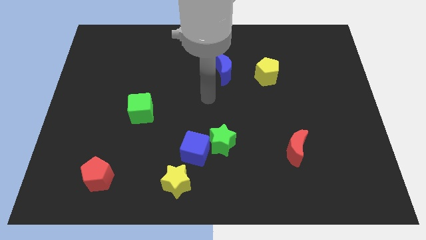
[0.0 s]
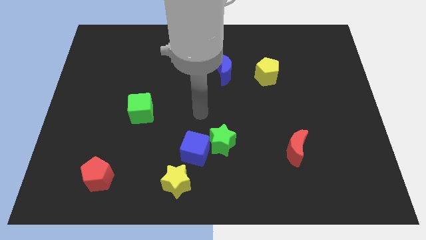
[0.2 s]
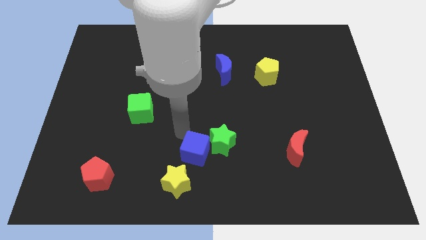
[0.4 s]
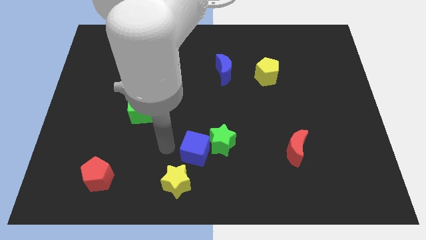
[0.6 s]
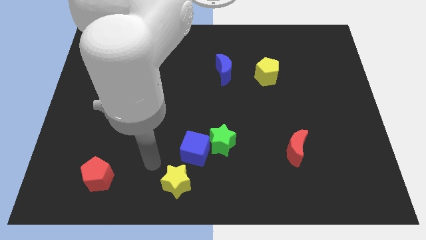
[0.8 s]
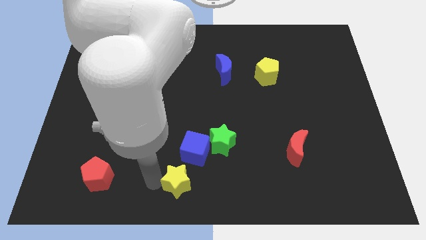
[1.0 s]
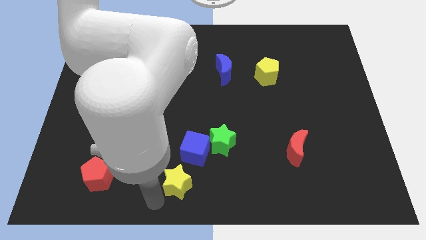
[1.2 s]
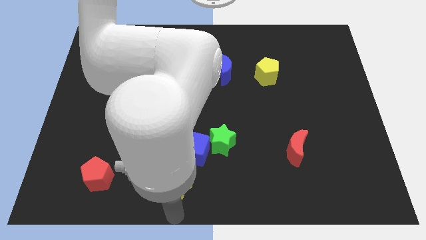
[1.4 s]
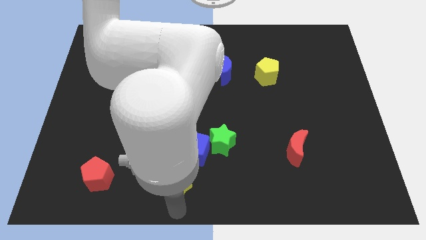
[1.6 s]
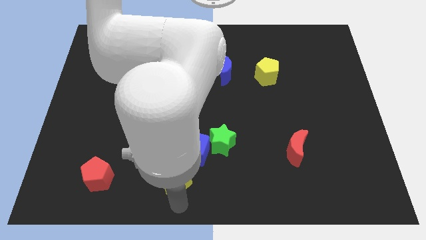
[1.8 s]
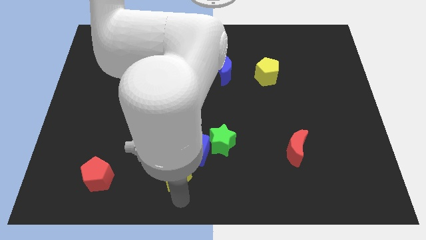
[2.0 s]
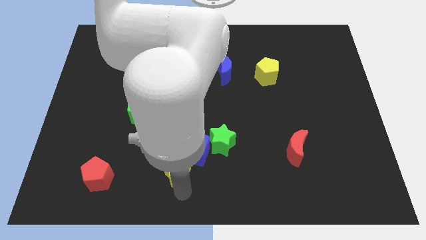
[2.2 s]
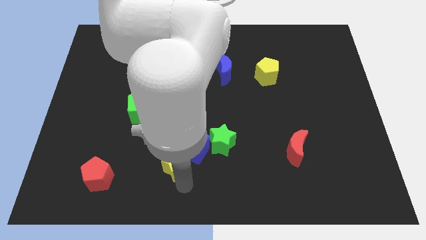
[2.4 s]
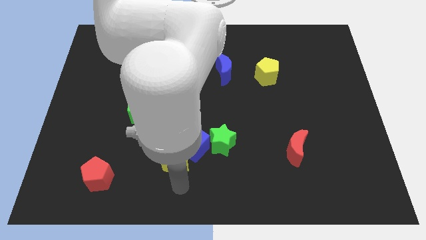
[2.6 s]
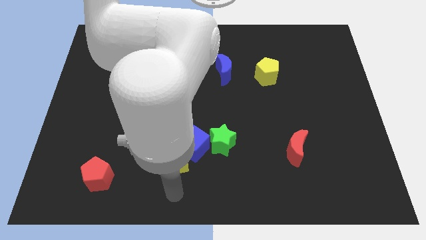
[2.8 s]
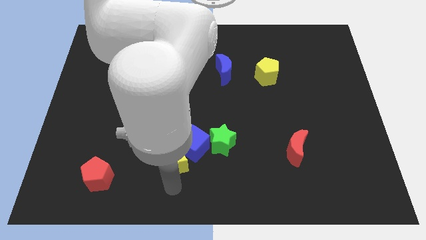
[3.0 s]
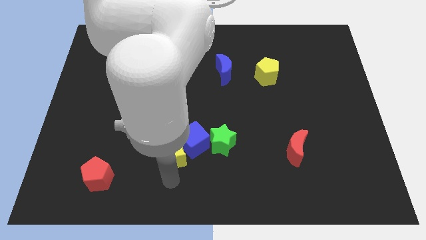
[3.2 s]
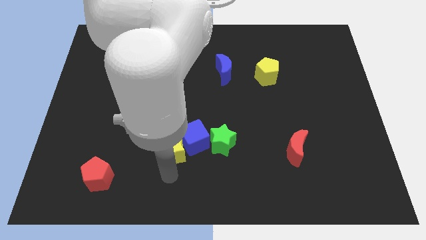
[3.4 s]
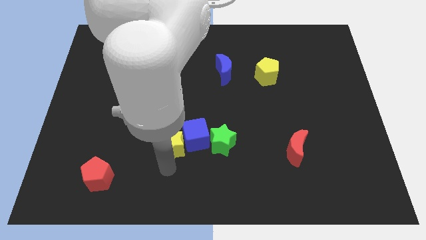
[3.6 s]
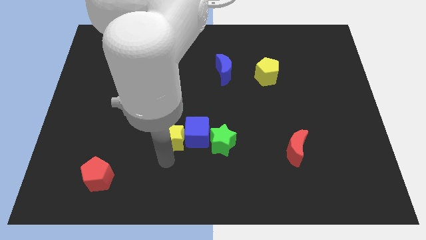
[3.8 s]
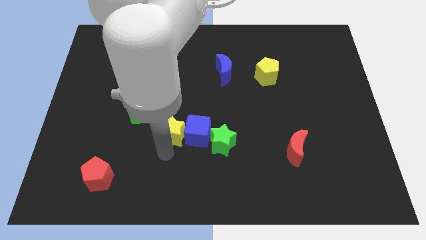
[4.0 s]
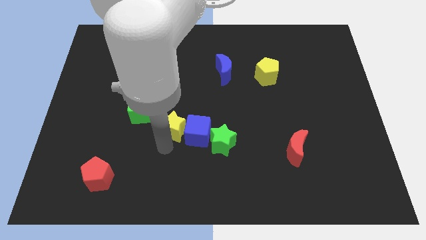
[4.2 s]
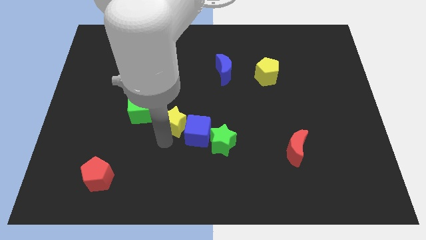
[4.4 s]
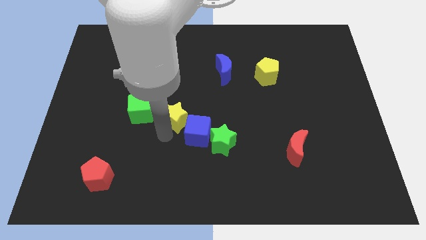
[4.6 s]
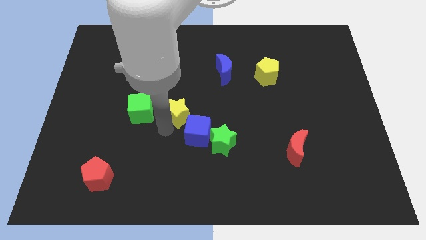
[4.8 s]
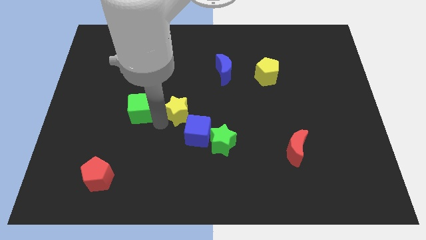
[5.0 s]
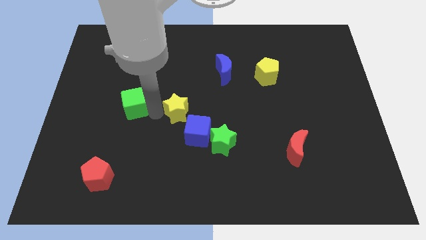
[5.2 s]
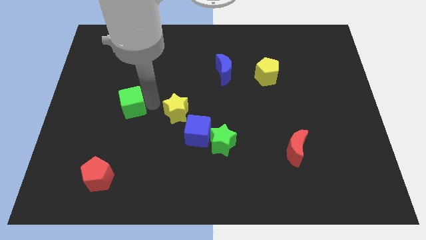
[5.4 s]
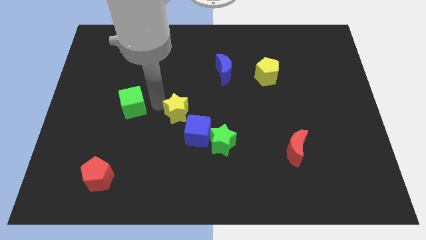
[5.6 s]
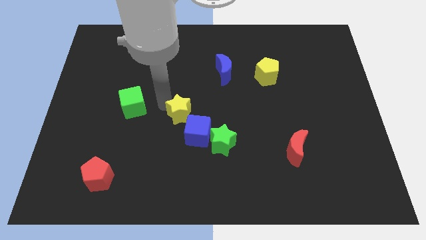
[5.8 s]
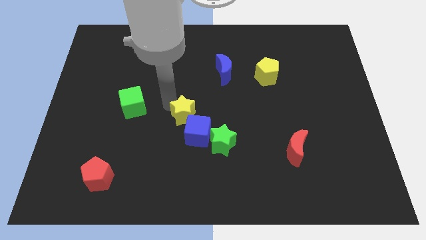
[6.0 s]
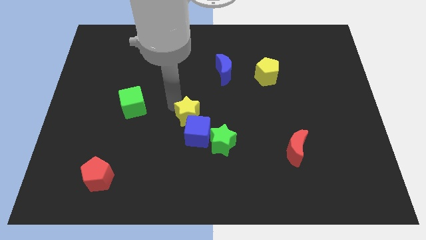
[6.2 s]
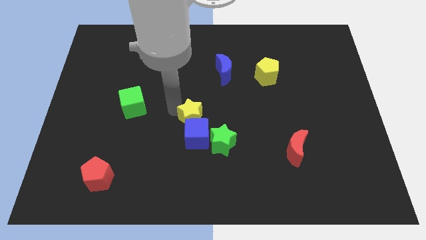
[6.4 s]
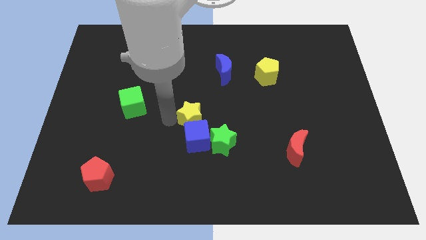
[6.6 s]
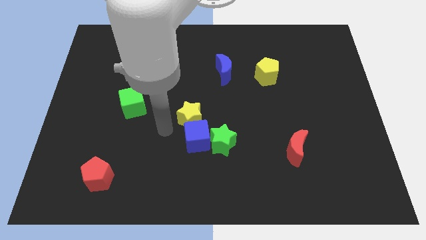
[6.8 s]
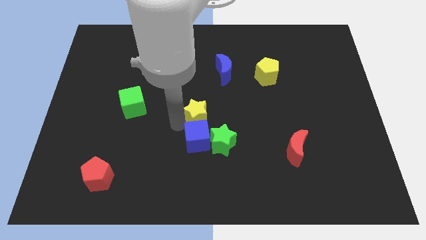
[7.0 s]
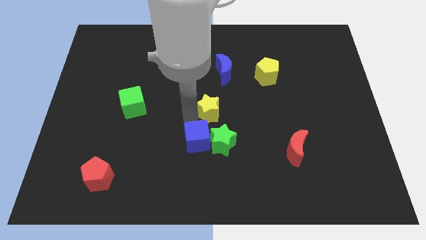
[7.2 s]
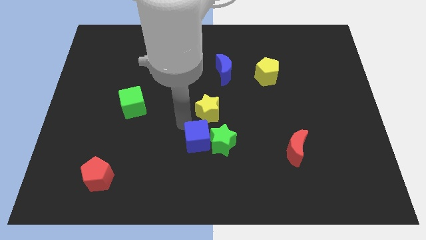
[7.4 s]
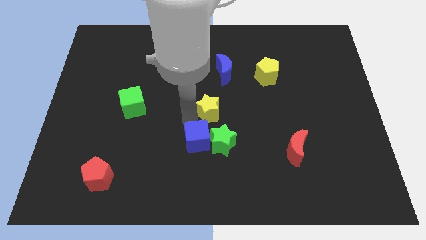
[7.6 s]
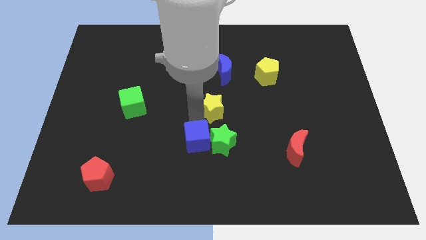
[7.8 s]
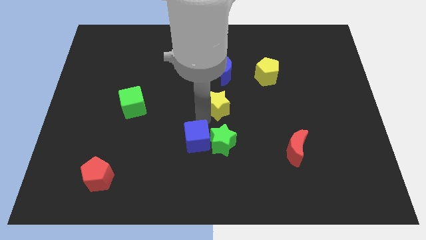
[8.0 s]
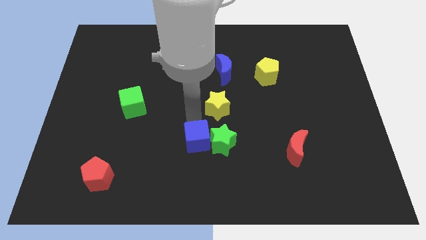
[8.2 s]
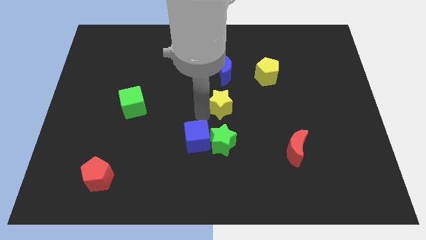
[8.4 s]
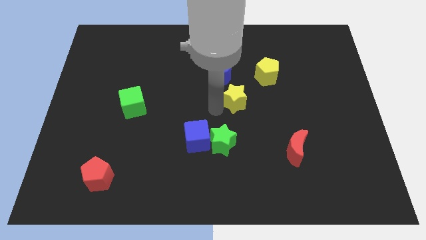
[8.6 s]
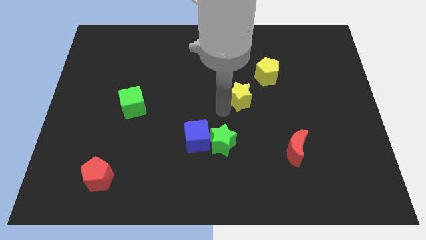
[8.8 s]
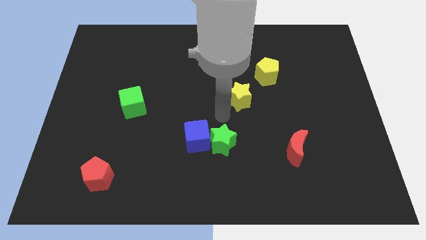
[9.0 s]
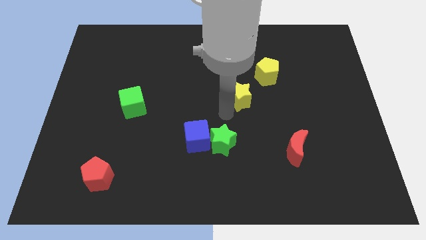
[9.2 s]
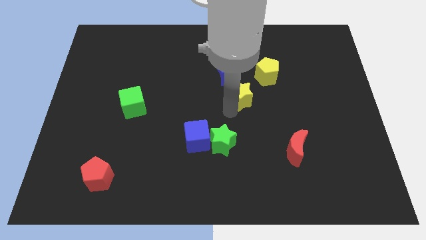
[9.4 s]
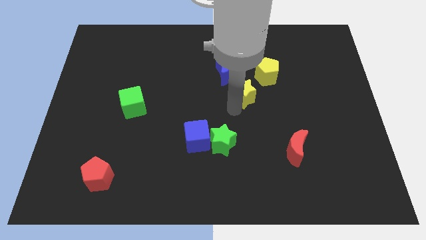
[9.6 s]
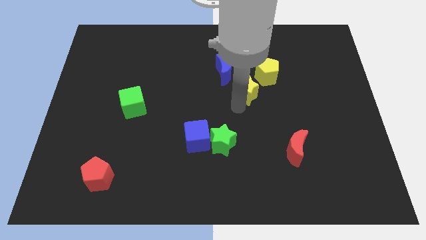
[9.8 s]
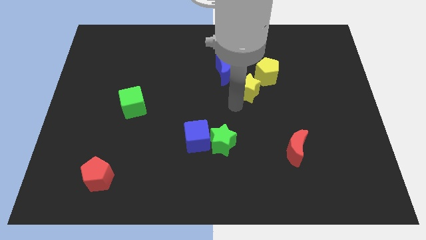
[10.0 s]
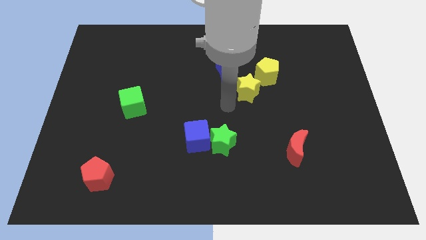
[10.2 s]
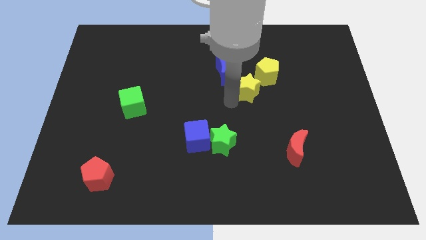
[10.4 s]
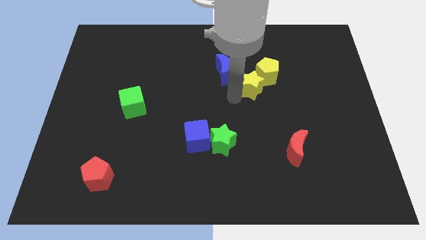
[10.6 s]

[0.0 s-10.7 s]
move the yellow star towards the yellow pentagon

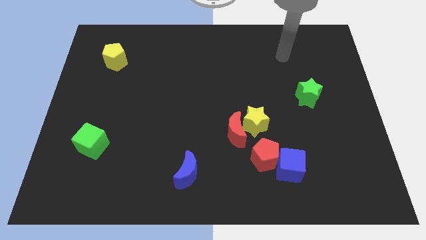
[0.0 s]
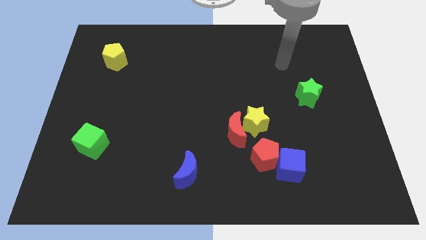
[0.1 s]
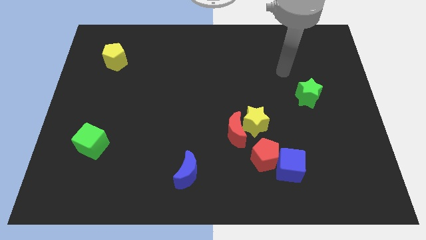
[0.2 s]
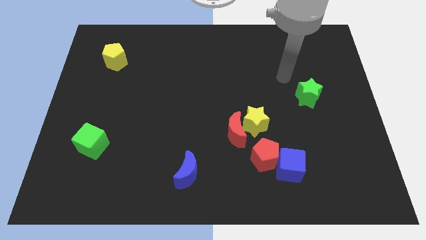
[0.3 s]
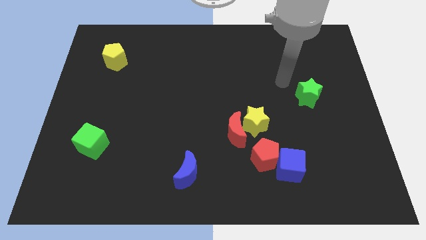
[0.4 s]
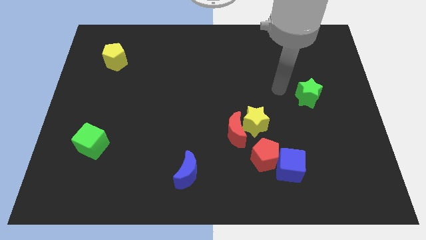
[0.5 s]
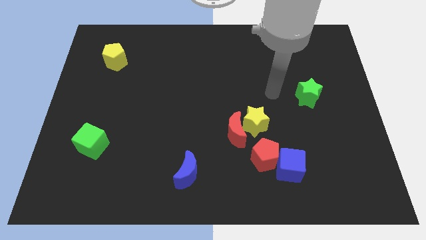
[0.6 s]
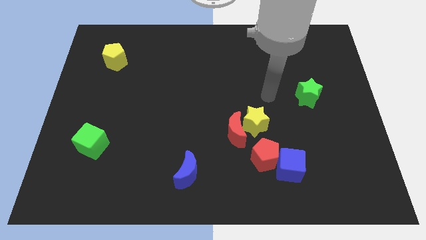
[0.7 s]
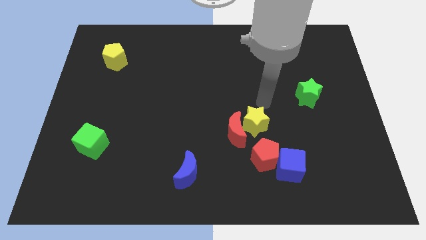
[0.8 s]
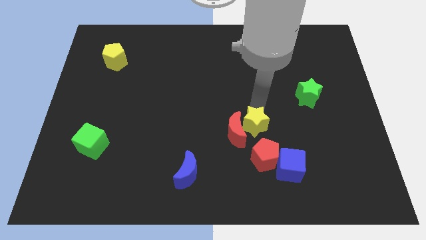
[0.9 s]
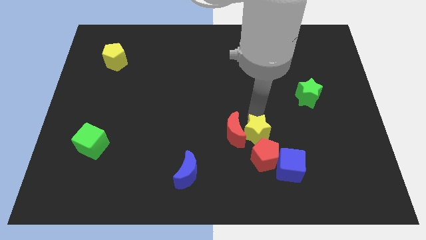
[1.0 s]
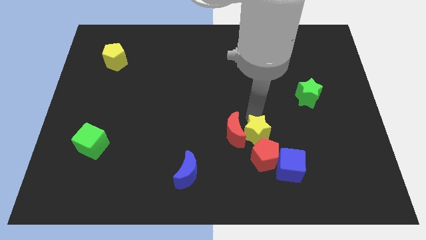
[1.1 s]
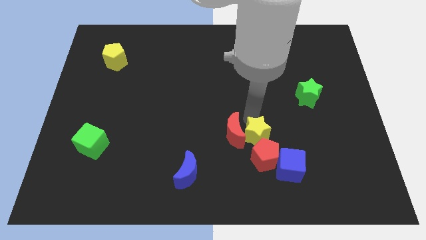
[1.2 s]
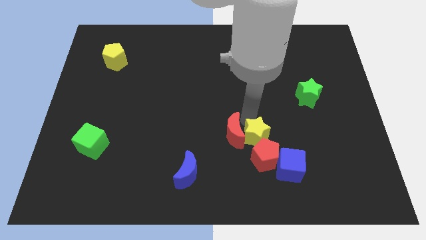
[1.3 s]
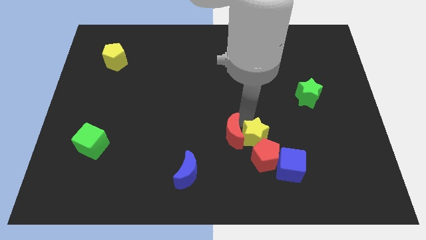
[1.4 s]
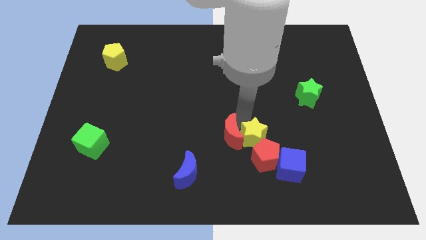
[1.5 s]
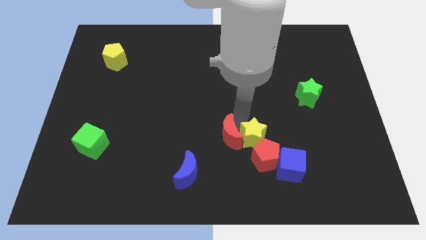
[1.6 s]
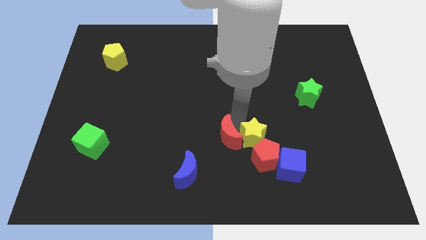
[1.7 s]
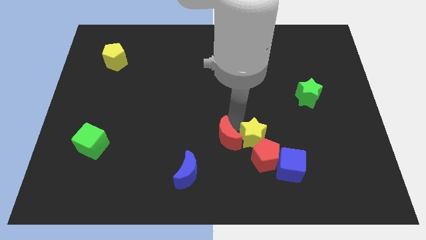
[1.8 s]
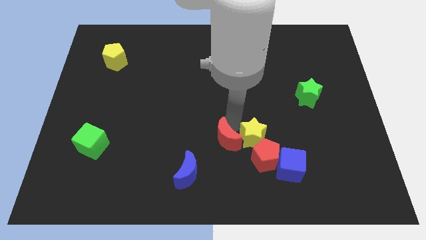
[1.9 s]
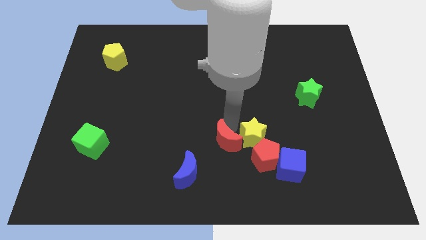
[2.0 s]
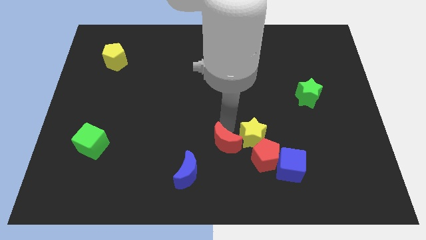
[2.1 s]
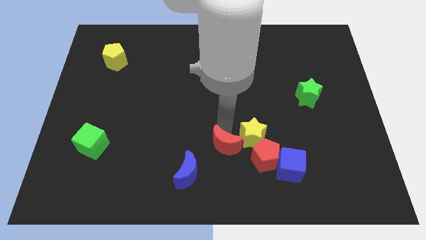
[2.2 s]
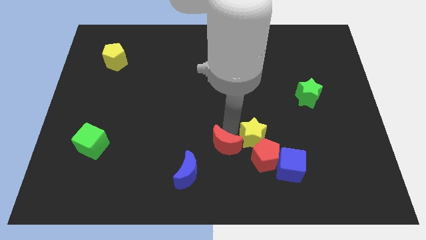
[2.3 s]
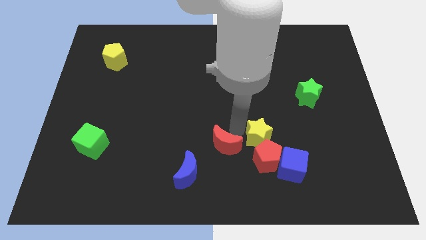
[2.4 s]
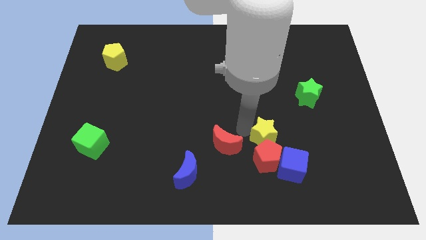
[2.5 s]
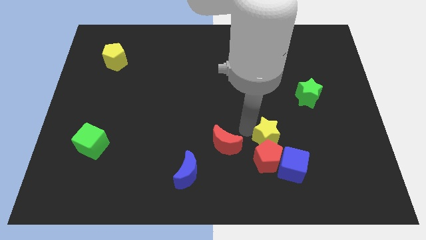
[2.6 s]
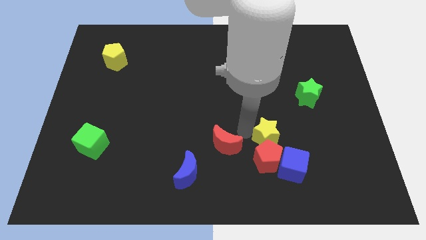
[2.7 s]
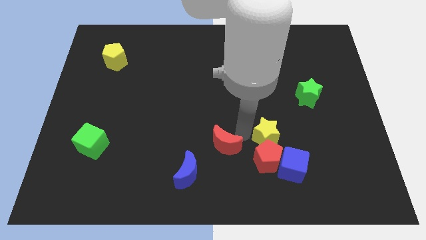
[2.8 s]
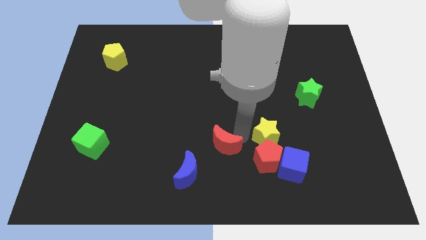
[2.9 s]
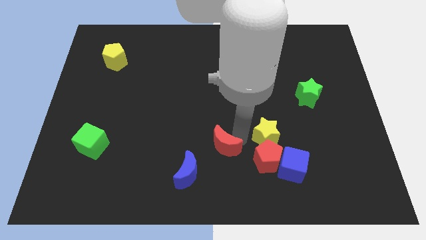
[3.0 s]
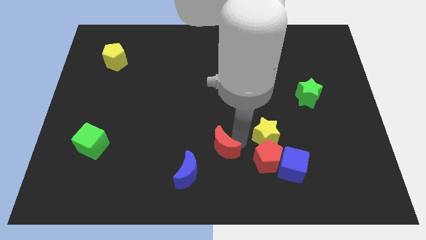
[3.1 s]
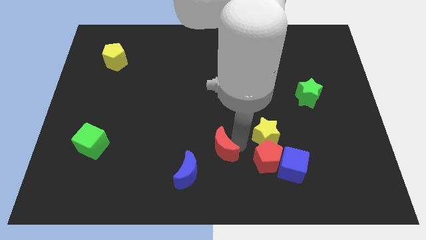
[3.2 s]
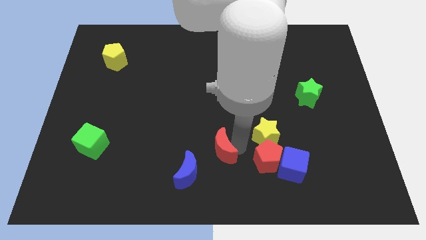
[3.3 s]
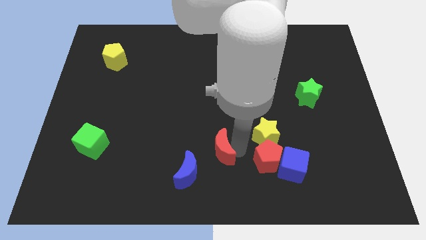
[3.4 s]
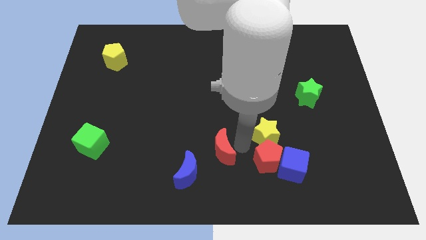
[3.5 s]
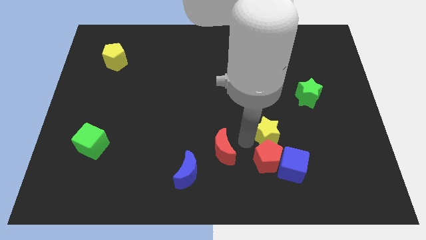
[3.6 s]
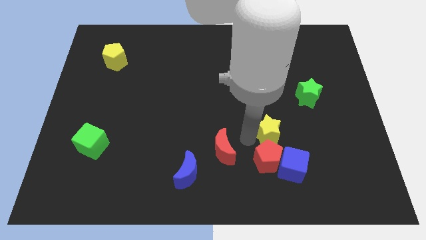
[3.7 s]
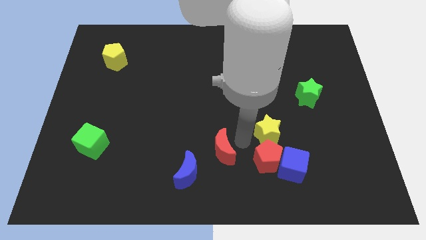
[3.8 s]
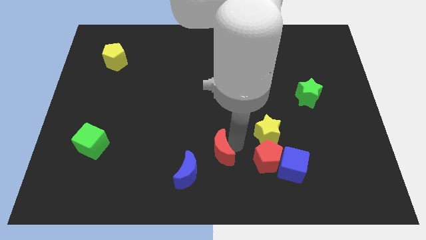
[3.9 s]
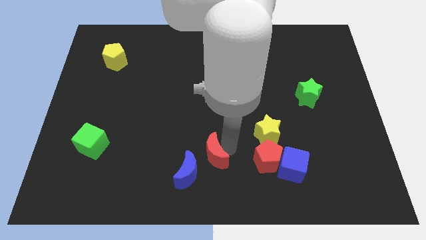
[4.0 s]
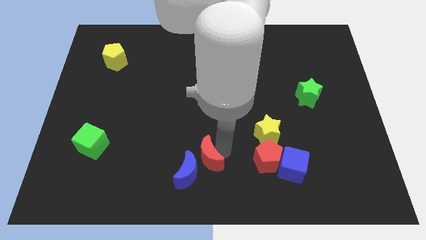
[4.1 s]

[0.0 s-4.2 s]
put the red moon towards the blue moon
